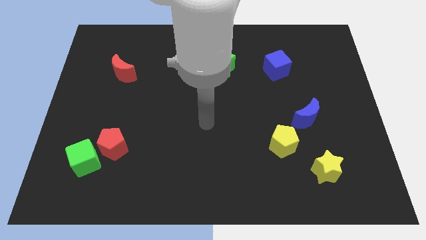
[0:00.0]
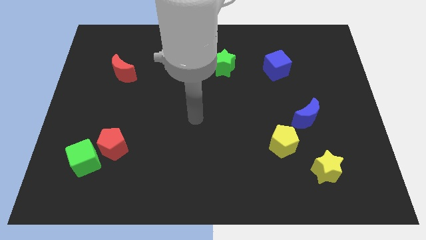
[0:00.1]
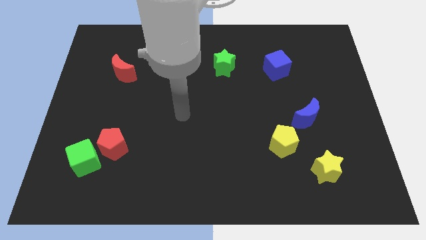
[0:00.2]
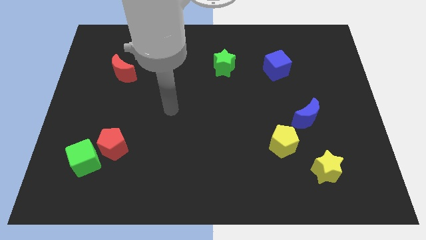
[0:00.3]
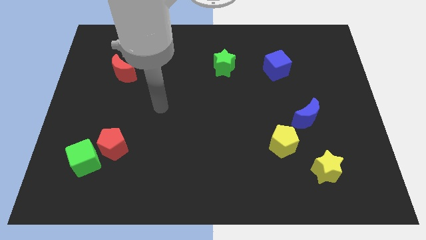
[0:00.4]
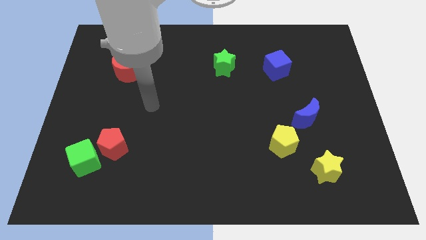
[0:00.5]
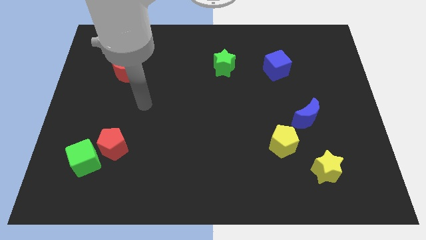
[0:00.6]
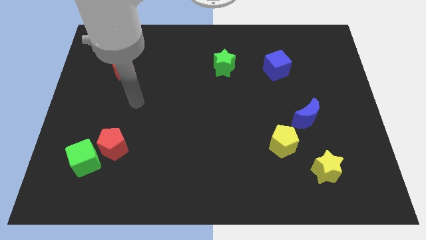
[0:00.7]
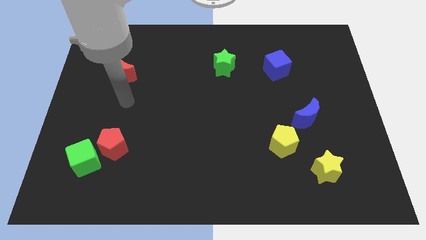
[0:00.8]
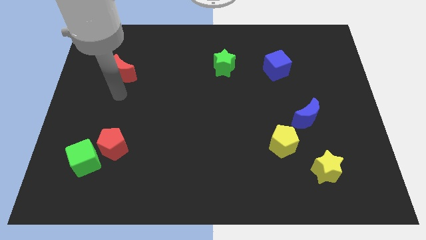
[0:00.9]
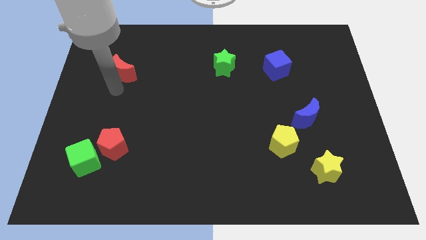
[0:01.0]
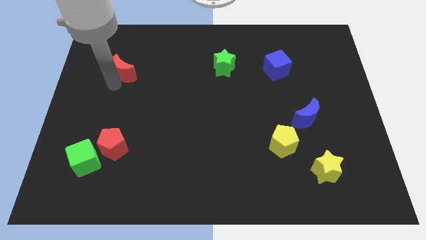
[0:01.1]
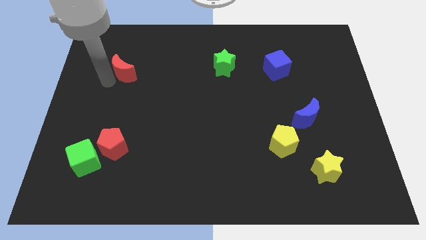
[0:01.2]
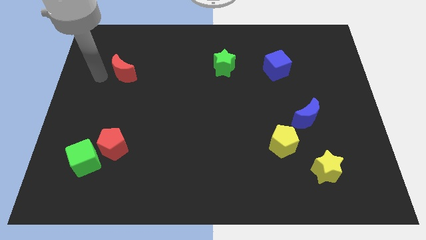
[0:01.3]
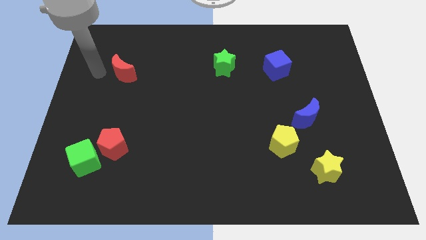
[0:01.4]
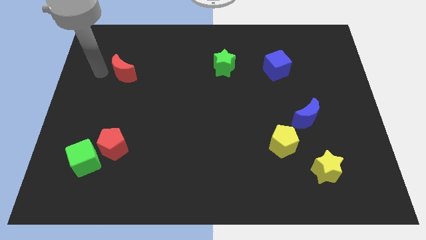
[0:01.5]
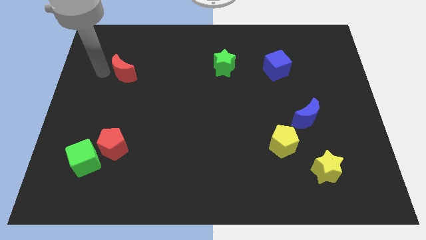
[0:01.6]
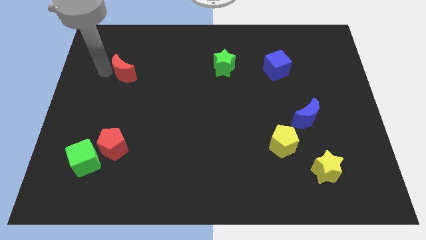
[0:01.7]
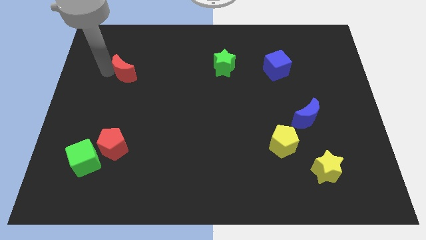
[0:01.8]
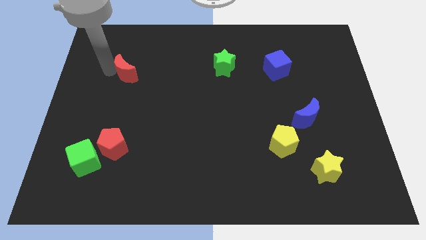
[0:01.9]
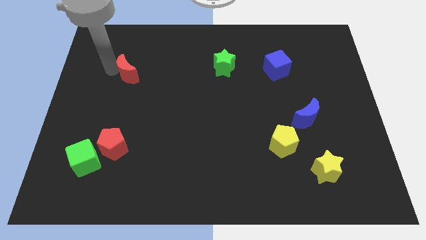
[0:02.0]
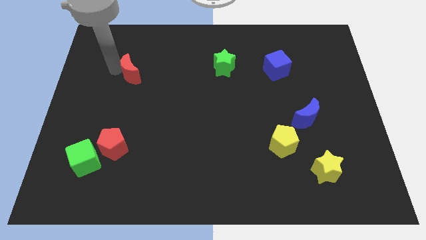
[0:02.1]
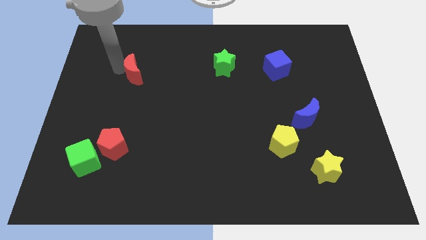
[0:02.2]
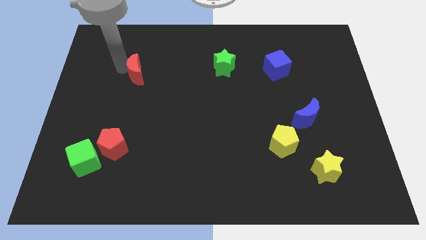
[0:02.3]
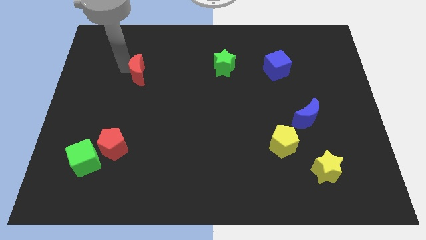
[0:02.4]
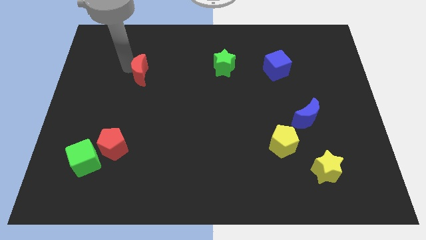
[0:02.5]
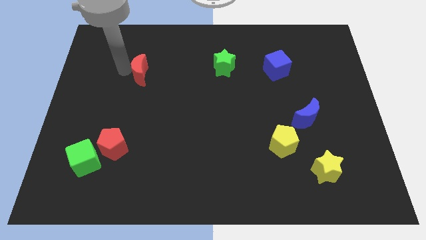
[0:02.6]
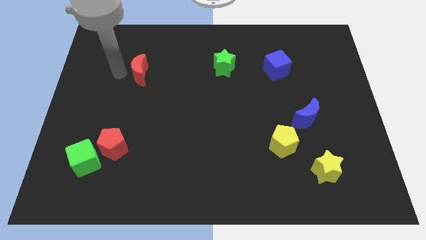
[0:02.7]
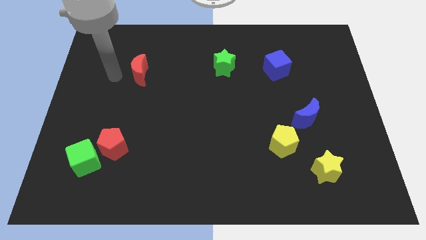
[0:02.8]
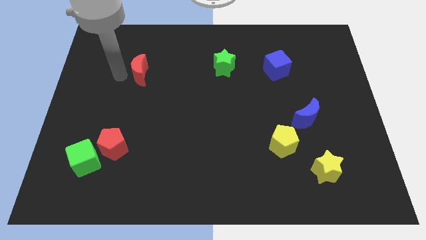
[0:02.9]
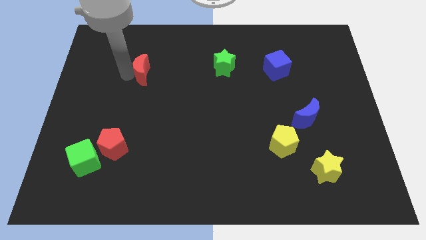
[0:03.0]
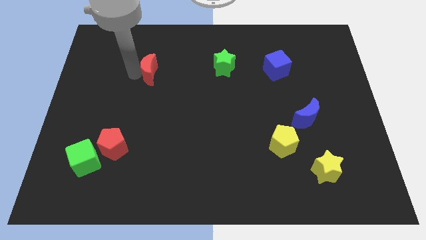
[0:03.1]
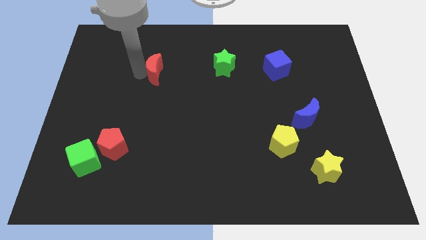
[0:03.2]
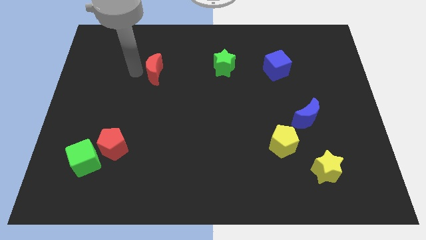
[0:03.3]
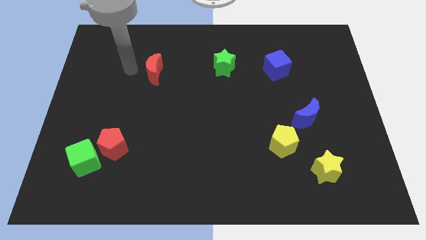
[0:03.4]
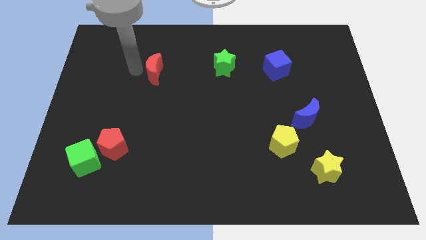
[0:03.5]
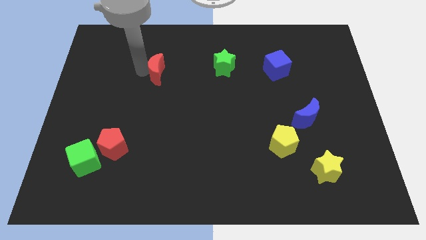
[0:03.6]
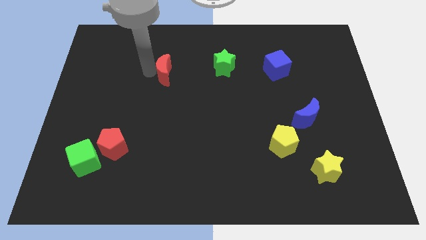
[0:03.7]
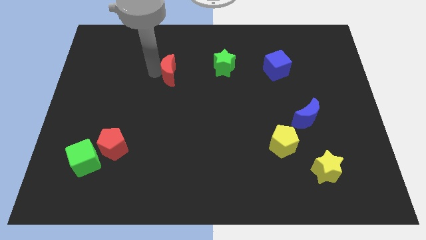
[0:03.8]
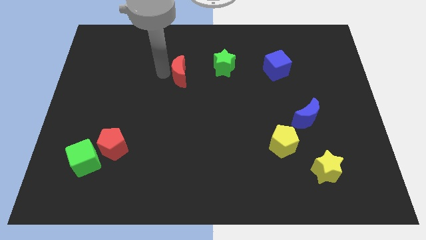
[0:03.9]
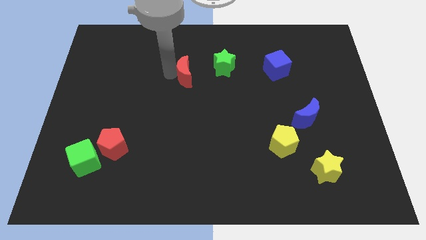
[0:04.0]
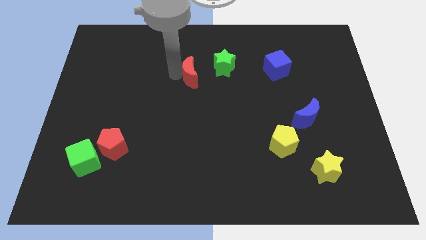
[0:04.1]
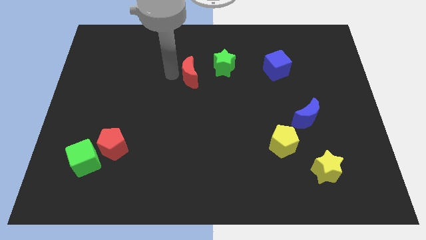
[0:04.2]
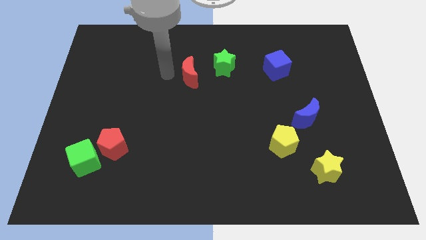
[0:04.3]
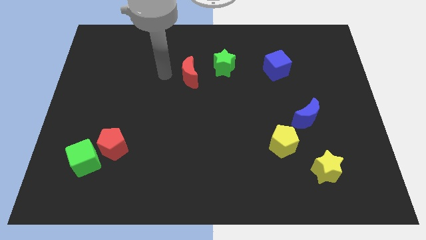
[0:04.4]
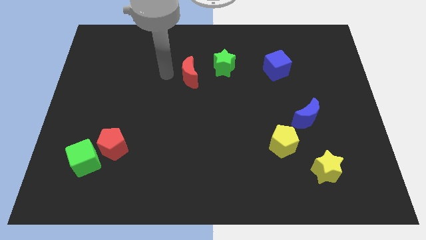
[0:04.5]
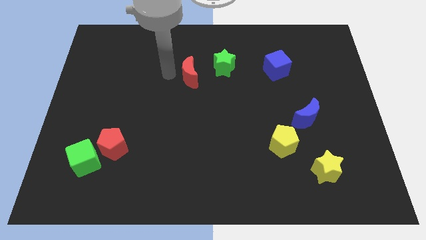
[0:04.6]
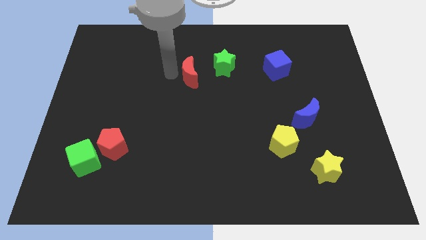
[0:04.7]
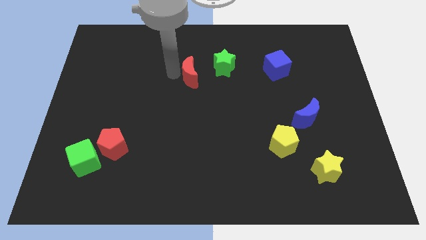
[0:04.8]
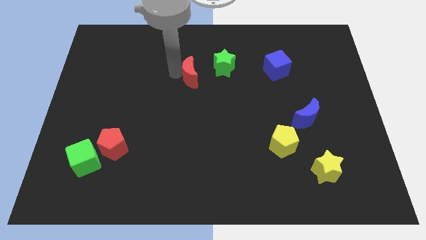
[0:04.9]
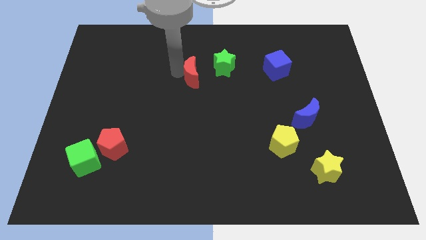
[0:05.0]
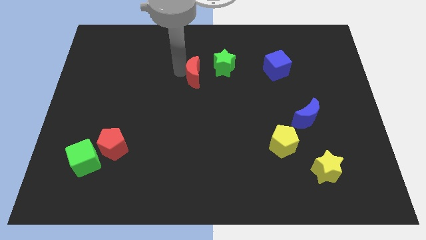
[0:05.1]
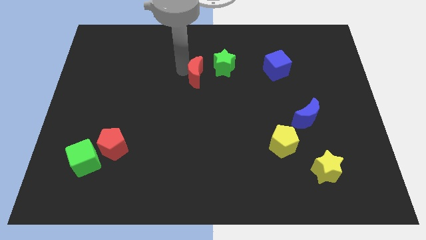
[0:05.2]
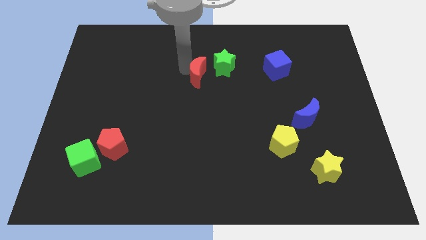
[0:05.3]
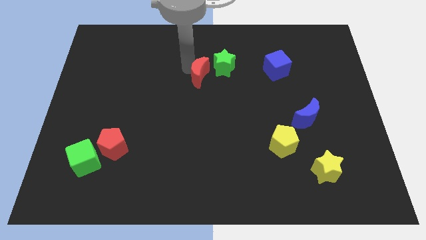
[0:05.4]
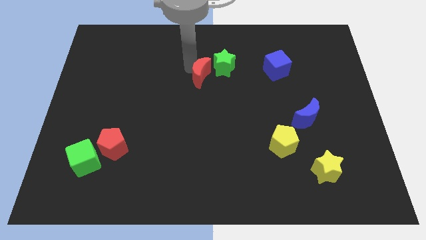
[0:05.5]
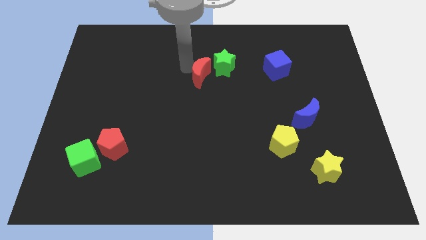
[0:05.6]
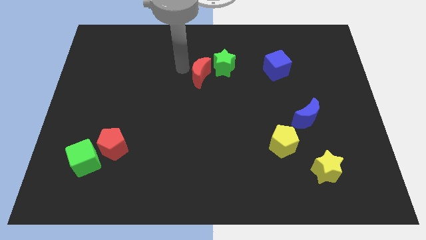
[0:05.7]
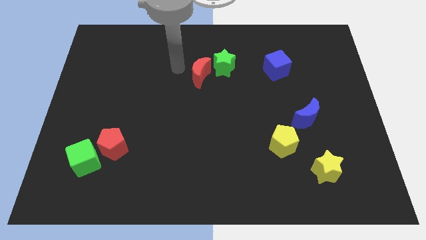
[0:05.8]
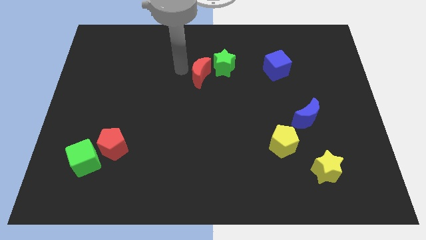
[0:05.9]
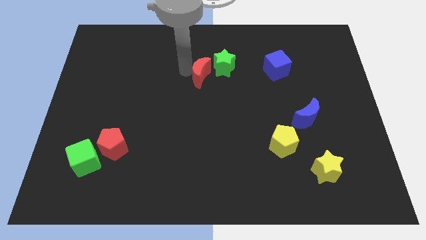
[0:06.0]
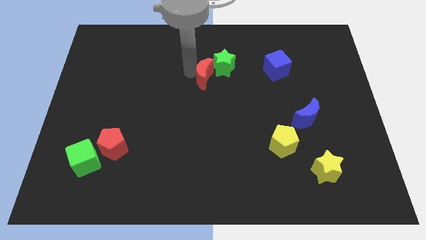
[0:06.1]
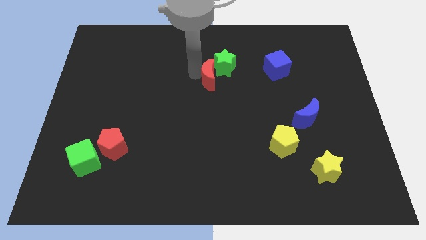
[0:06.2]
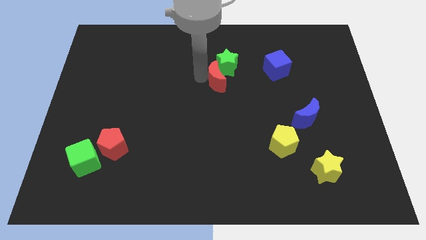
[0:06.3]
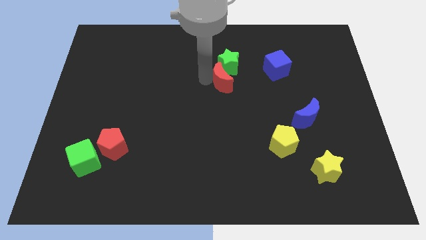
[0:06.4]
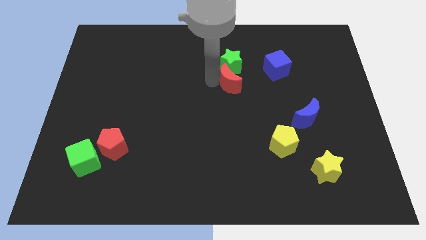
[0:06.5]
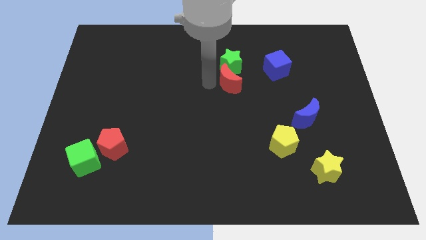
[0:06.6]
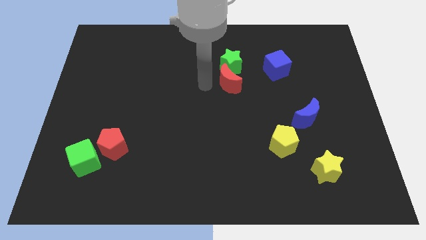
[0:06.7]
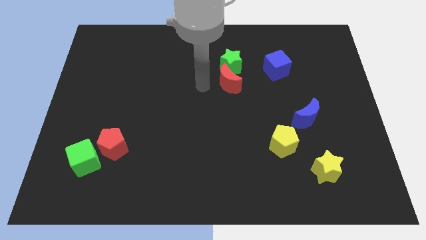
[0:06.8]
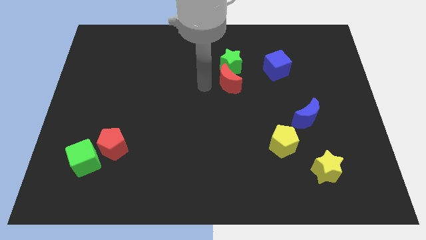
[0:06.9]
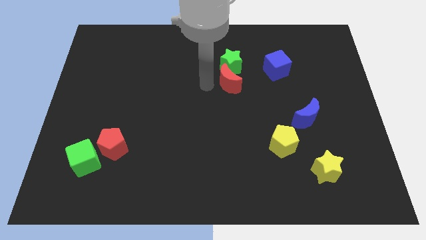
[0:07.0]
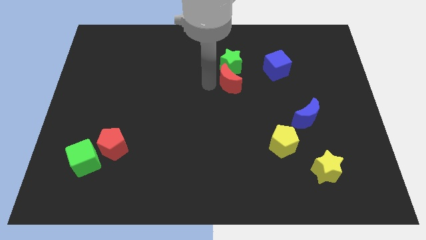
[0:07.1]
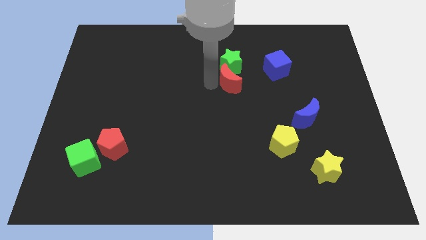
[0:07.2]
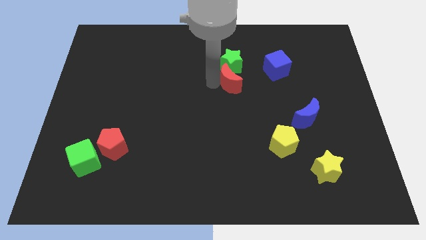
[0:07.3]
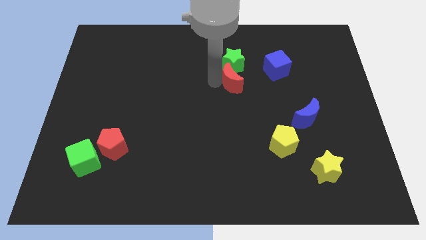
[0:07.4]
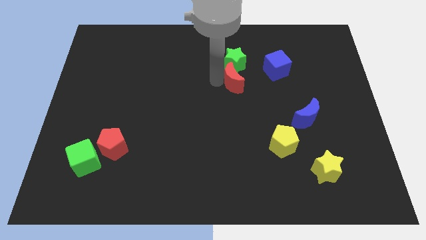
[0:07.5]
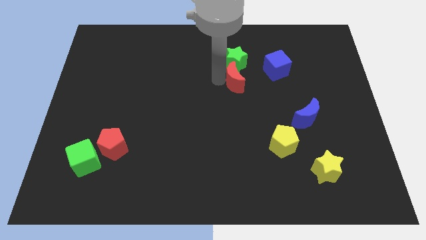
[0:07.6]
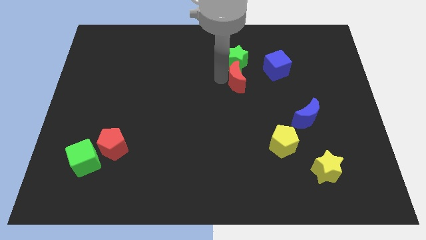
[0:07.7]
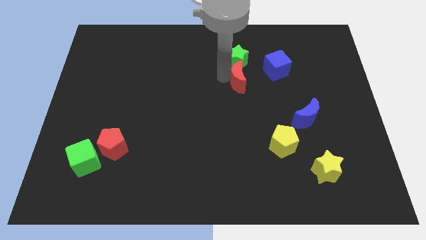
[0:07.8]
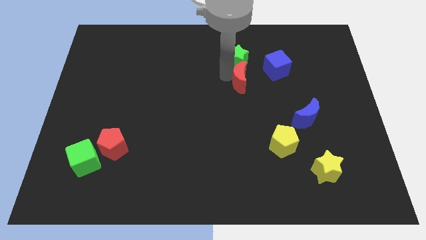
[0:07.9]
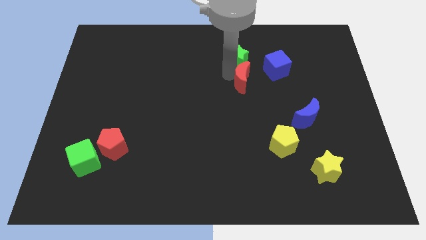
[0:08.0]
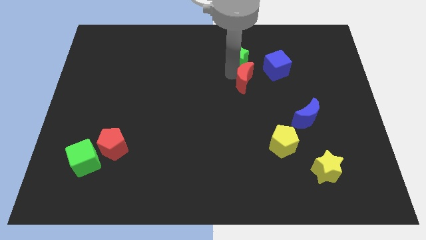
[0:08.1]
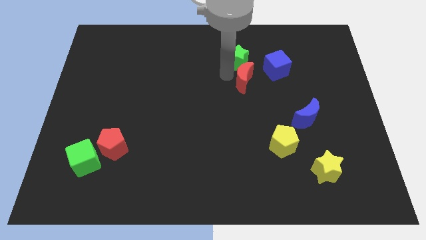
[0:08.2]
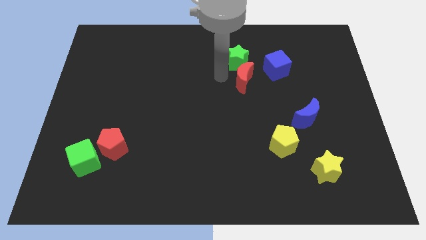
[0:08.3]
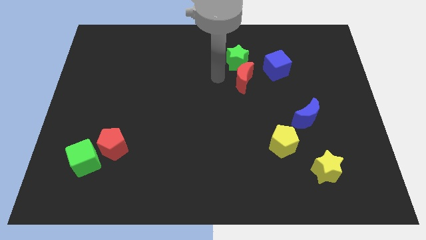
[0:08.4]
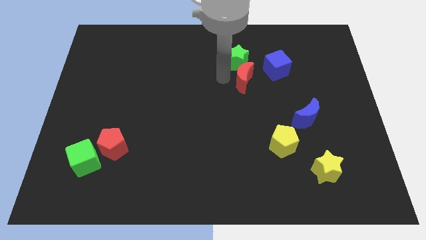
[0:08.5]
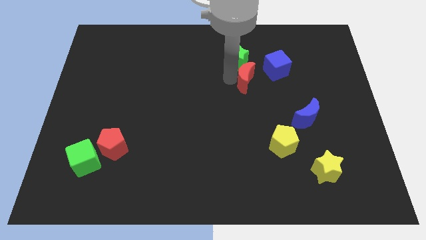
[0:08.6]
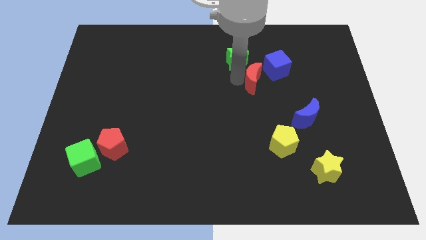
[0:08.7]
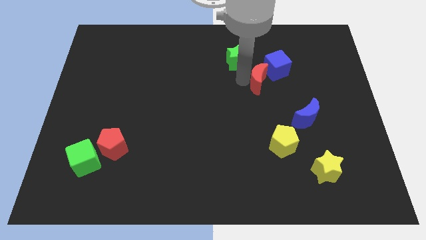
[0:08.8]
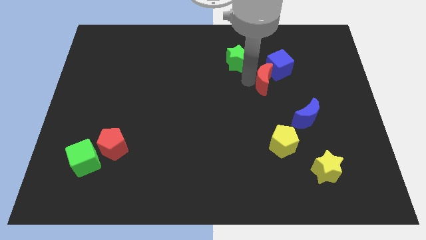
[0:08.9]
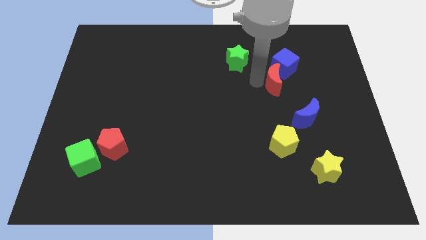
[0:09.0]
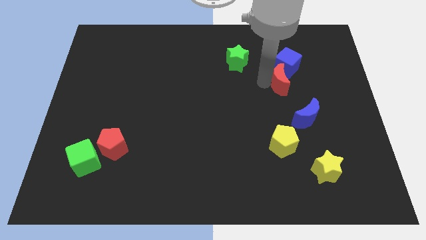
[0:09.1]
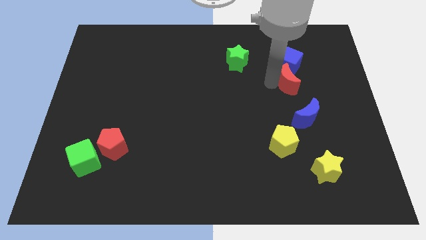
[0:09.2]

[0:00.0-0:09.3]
put the red moon to the top side of the blue moon
